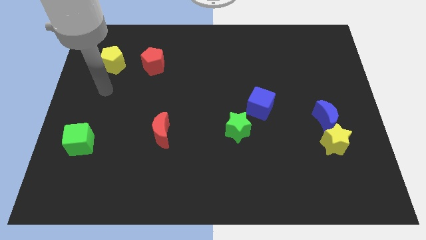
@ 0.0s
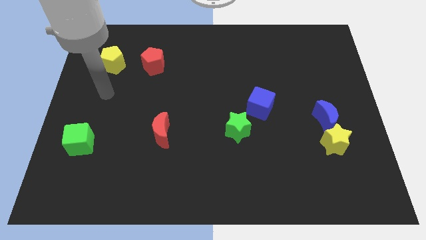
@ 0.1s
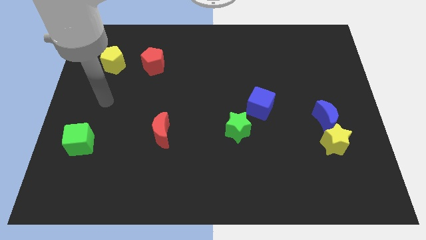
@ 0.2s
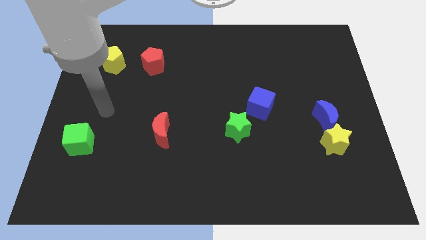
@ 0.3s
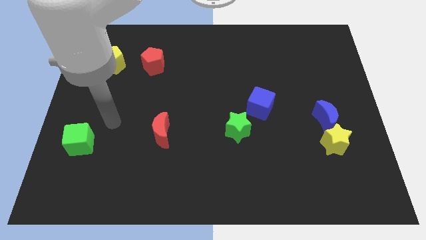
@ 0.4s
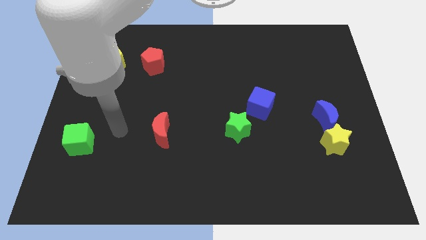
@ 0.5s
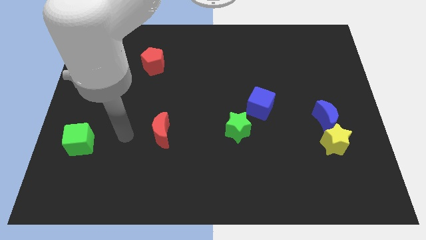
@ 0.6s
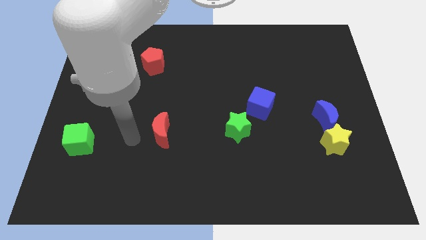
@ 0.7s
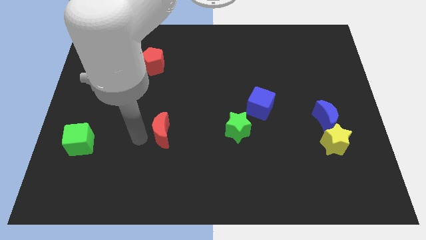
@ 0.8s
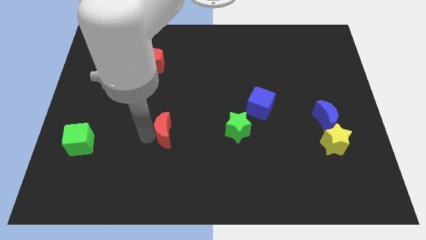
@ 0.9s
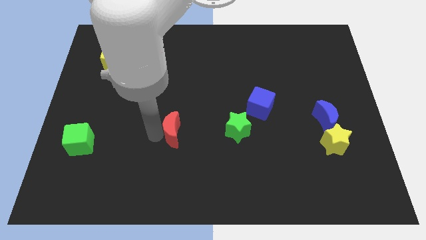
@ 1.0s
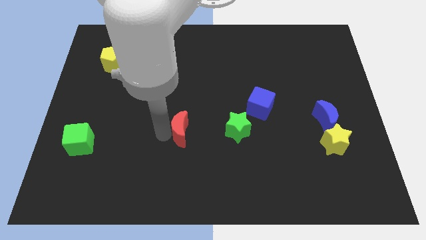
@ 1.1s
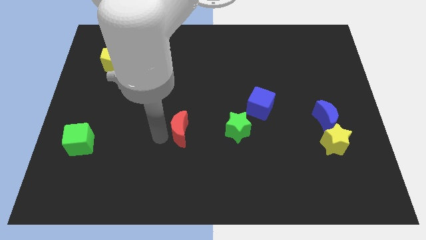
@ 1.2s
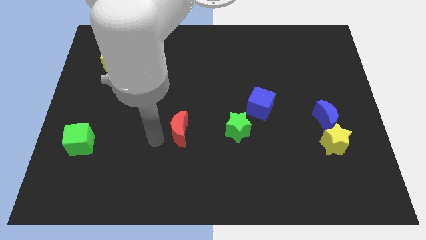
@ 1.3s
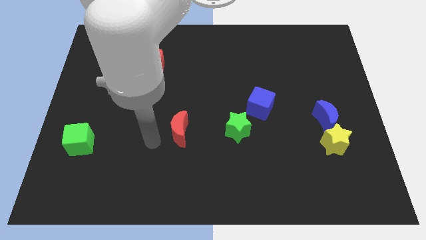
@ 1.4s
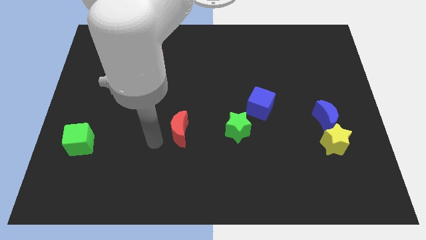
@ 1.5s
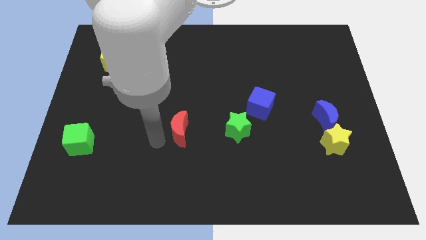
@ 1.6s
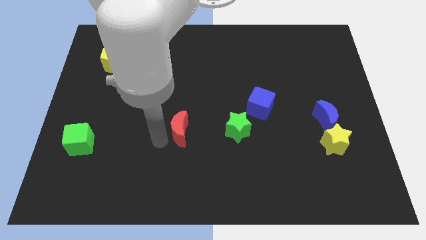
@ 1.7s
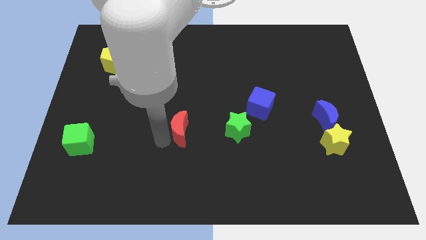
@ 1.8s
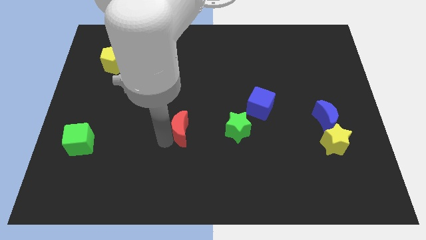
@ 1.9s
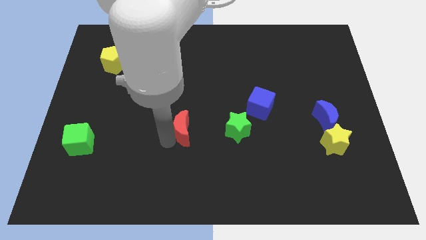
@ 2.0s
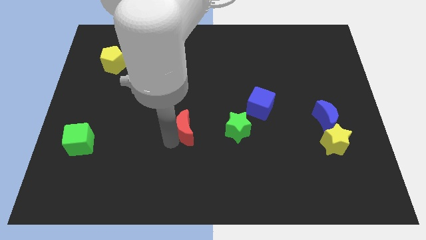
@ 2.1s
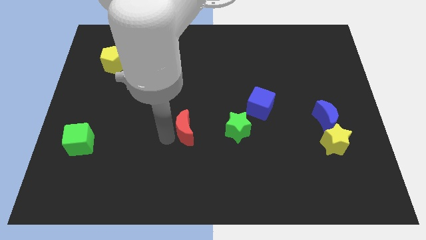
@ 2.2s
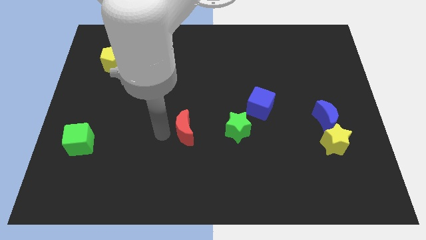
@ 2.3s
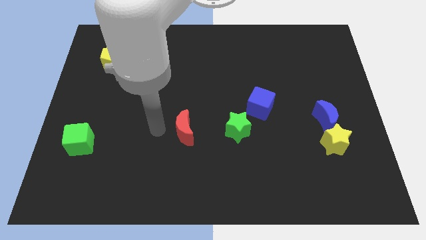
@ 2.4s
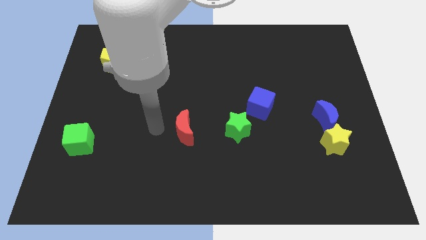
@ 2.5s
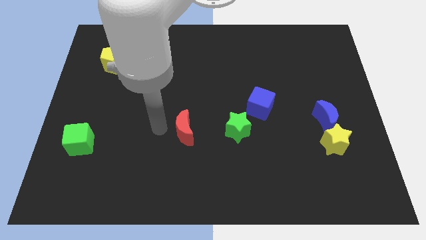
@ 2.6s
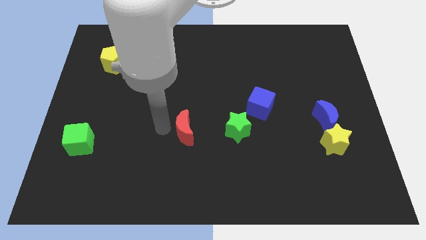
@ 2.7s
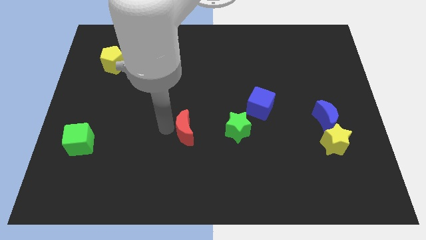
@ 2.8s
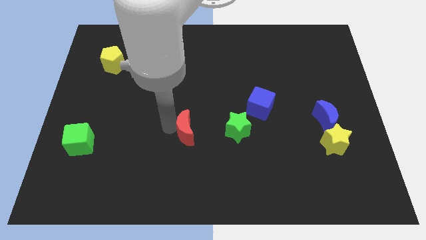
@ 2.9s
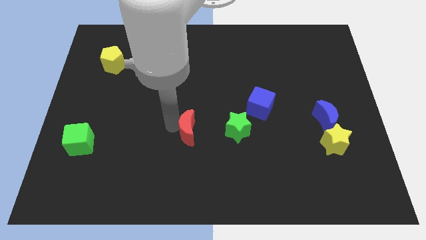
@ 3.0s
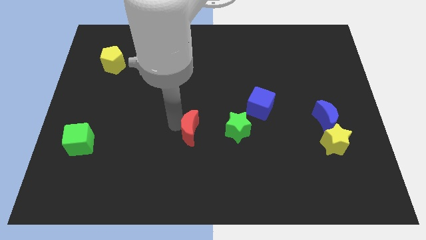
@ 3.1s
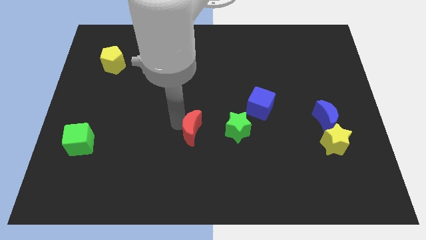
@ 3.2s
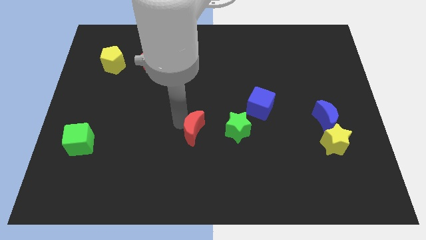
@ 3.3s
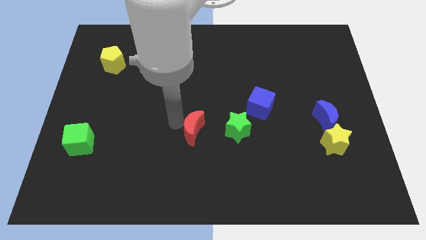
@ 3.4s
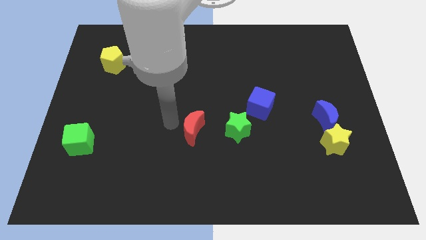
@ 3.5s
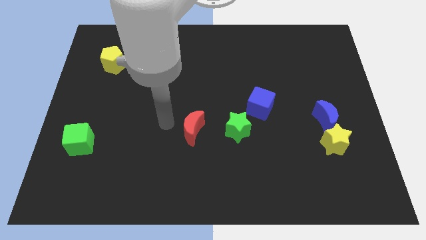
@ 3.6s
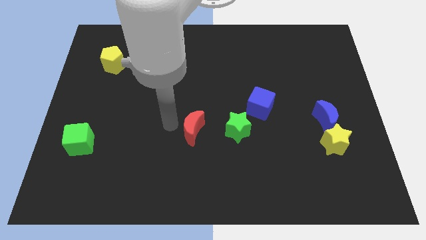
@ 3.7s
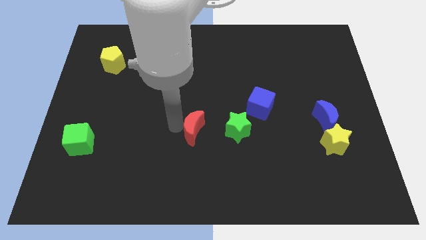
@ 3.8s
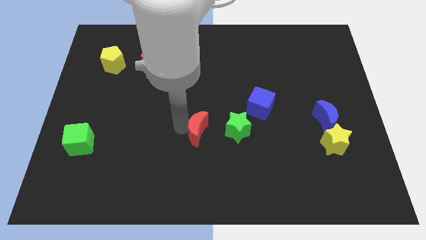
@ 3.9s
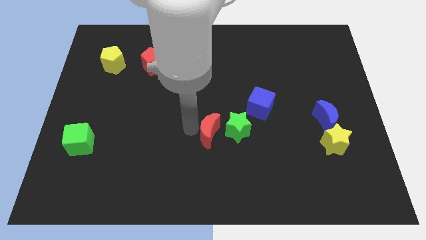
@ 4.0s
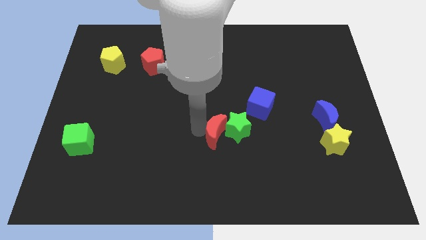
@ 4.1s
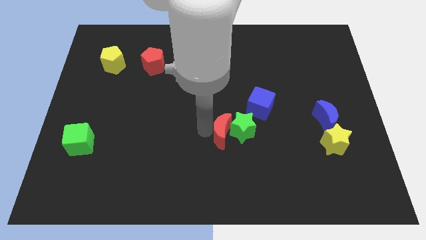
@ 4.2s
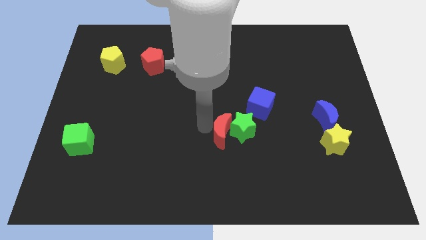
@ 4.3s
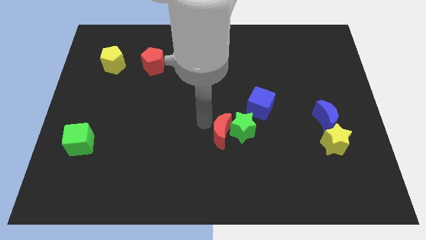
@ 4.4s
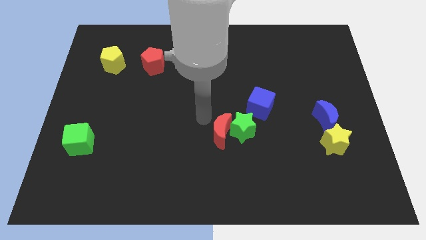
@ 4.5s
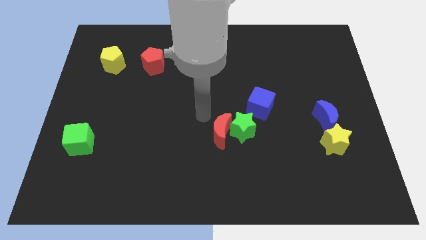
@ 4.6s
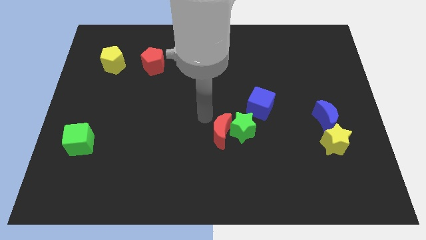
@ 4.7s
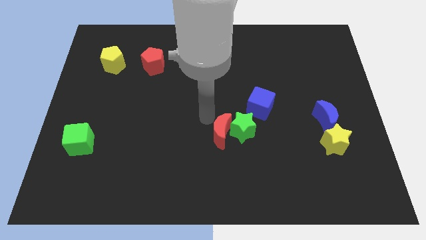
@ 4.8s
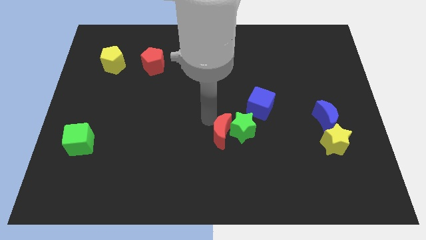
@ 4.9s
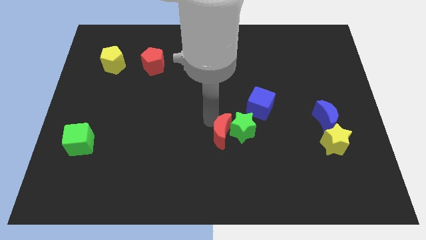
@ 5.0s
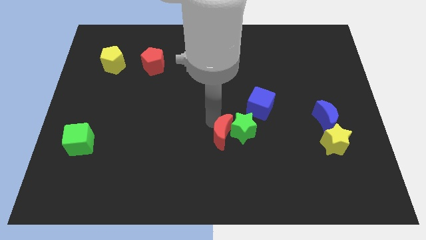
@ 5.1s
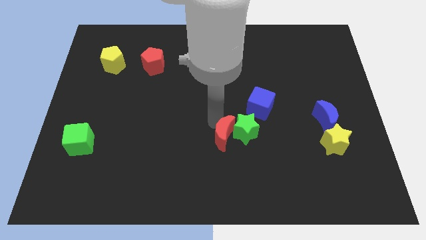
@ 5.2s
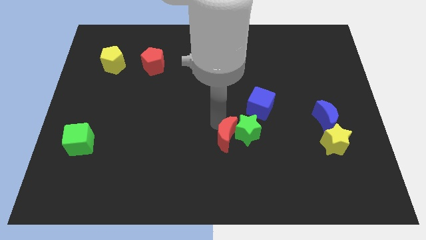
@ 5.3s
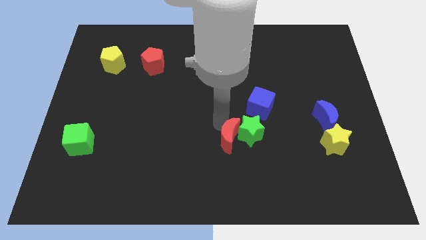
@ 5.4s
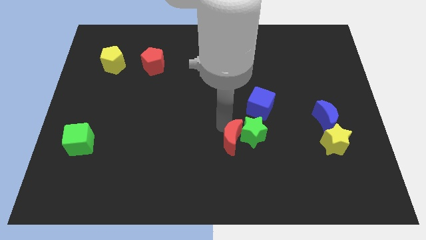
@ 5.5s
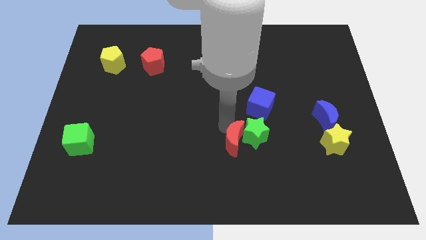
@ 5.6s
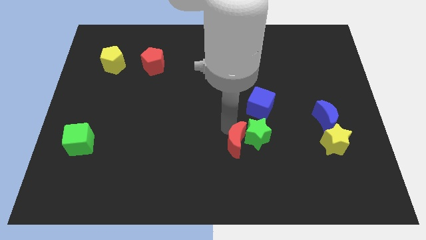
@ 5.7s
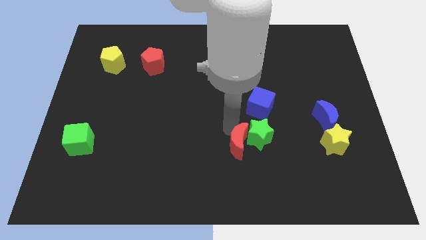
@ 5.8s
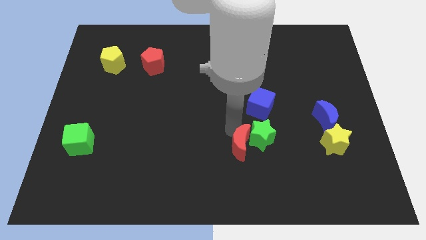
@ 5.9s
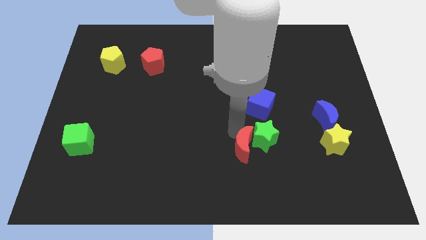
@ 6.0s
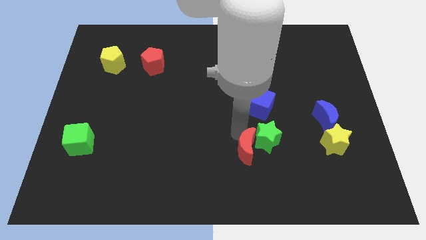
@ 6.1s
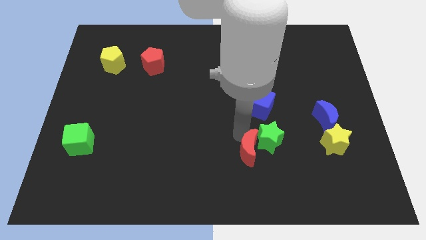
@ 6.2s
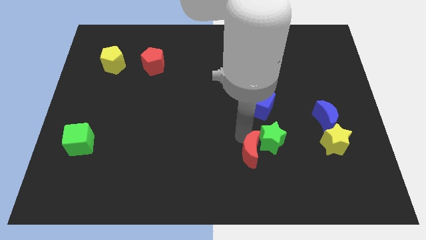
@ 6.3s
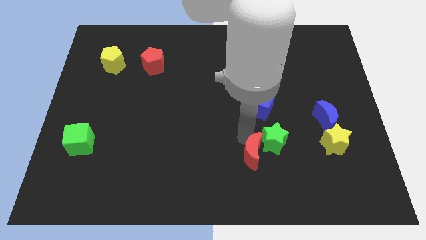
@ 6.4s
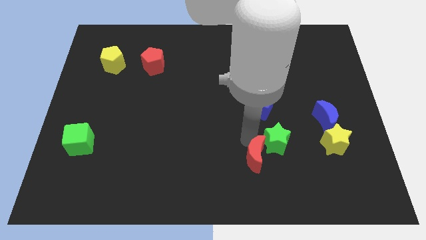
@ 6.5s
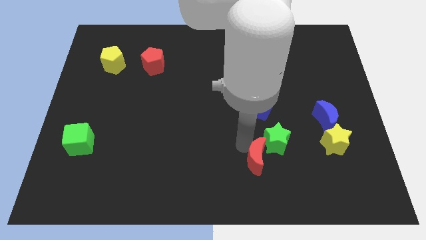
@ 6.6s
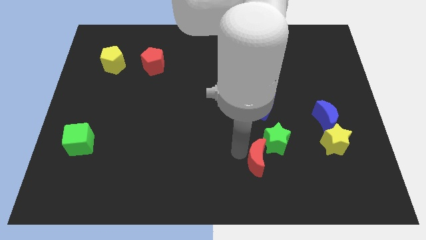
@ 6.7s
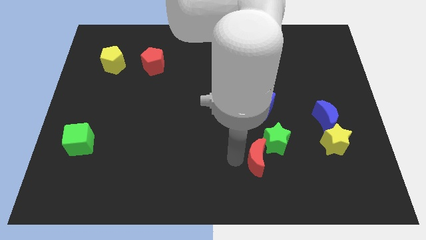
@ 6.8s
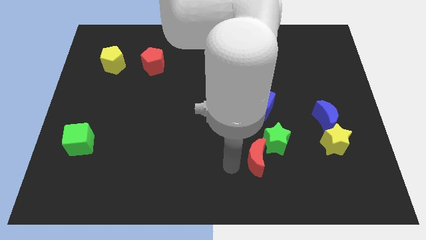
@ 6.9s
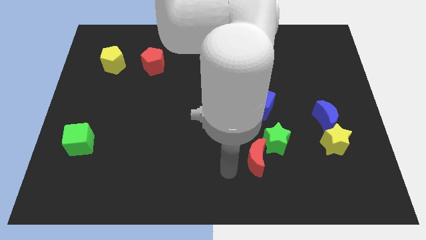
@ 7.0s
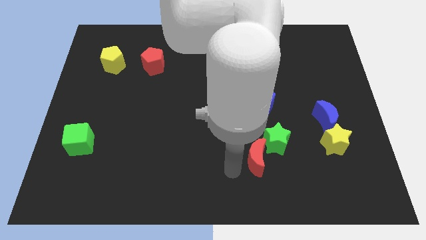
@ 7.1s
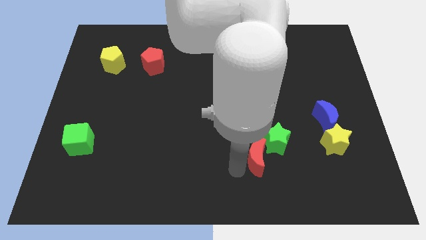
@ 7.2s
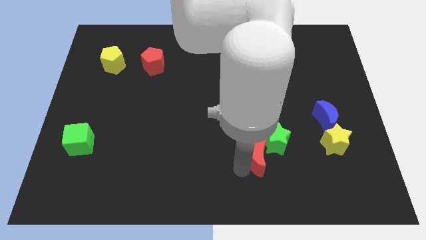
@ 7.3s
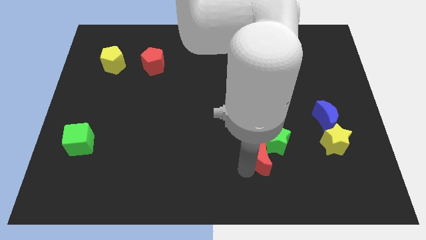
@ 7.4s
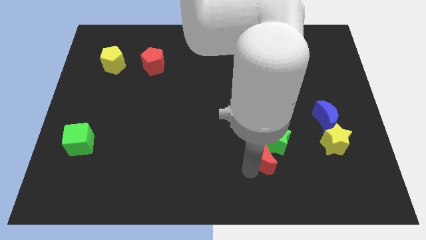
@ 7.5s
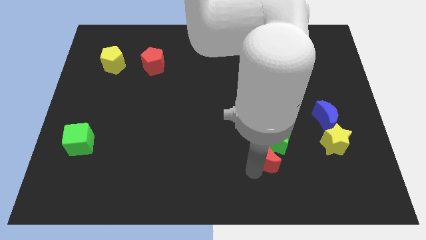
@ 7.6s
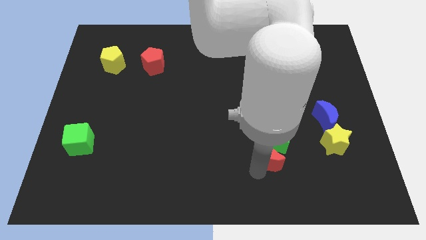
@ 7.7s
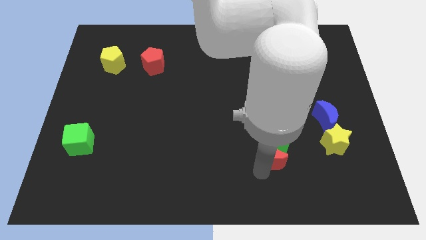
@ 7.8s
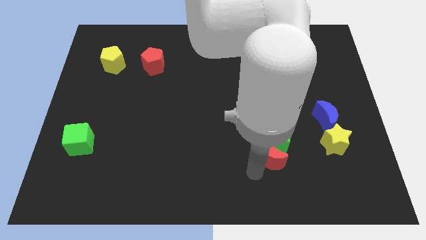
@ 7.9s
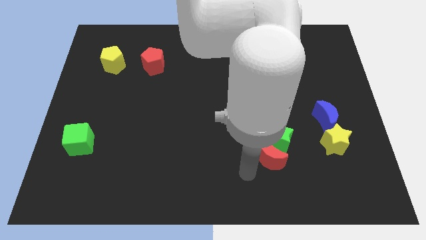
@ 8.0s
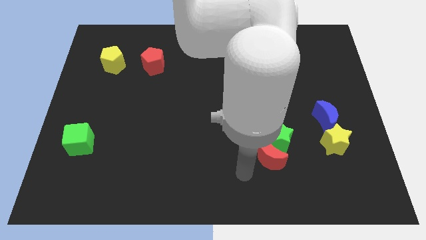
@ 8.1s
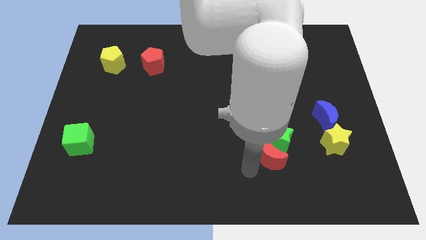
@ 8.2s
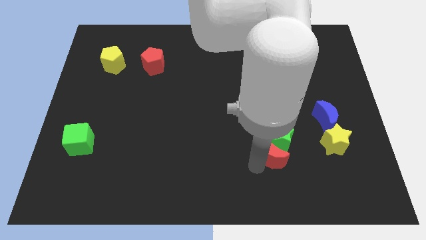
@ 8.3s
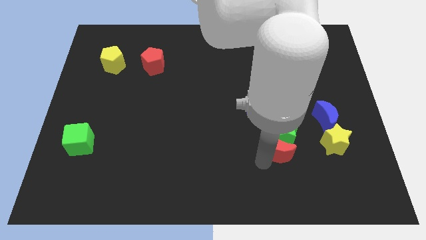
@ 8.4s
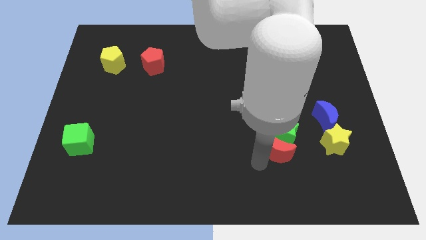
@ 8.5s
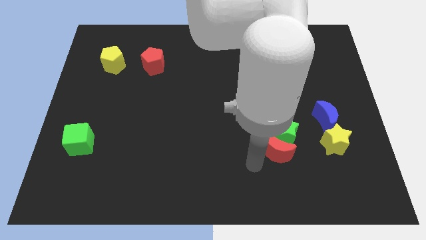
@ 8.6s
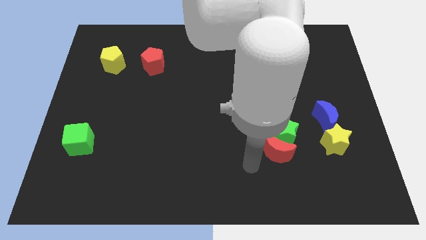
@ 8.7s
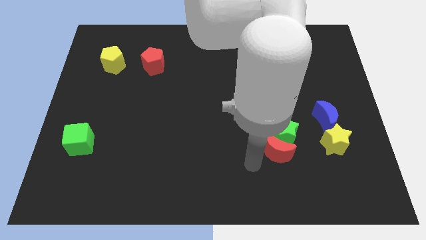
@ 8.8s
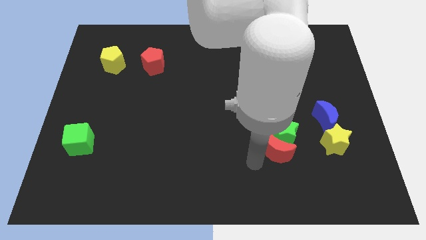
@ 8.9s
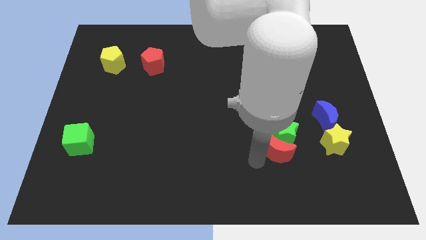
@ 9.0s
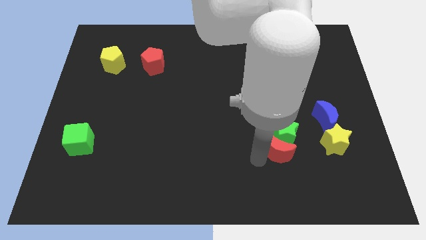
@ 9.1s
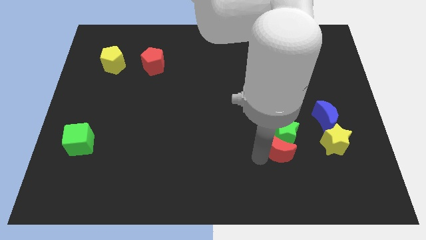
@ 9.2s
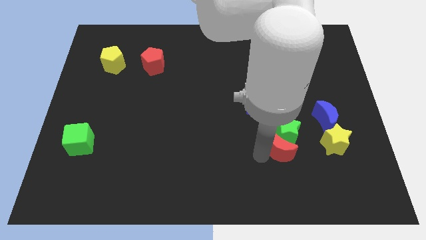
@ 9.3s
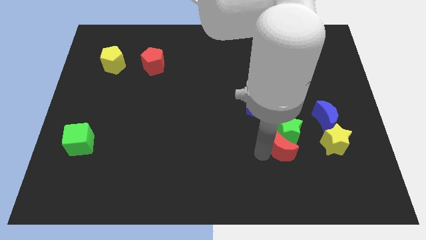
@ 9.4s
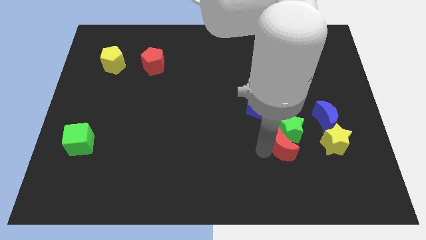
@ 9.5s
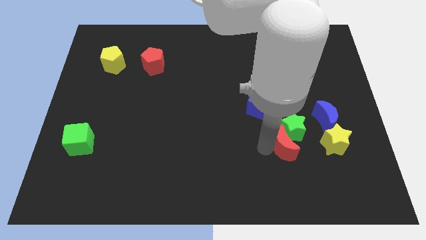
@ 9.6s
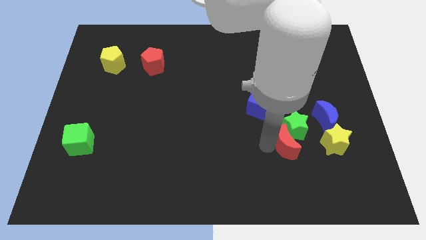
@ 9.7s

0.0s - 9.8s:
put the red moon diagonally down and to the left of the blue moon
